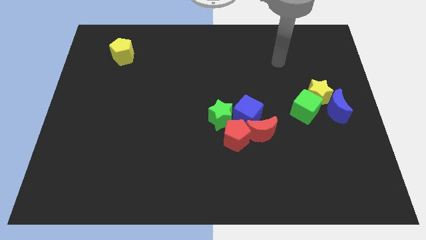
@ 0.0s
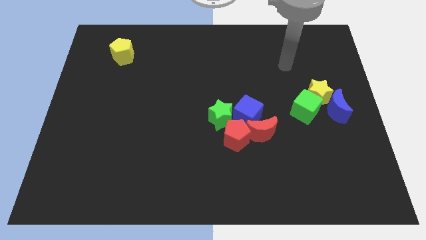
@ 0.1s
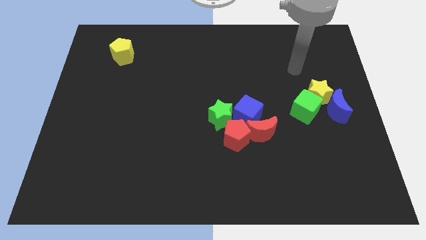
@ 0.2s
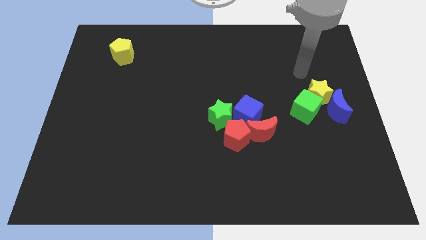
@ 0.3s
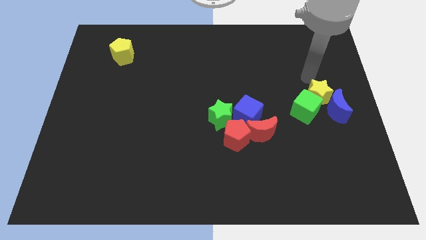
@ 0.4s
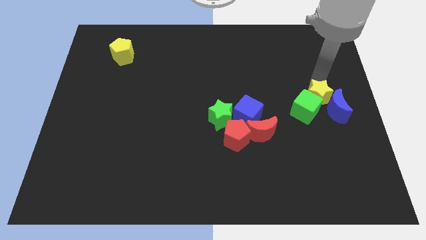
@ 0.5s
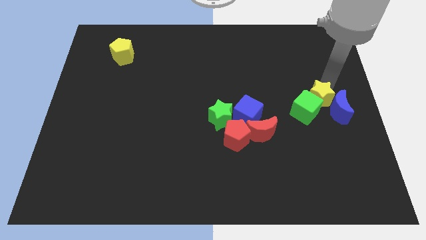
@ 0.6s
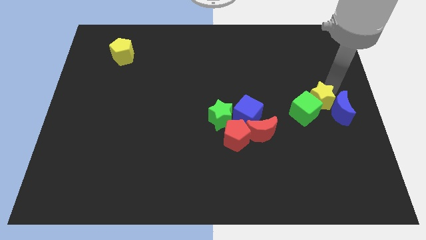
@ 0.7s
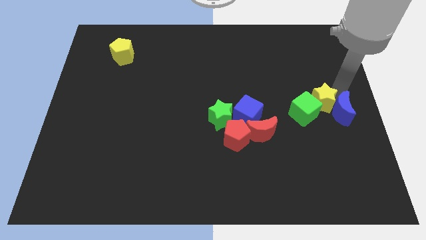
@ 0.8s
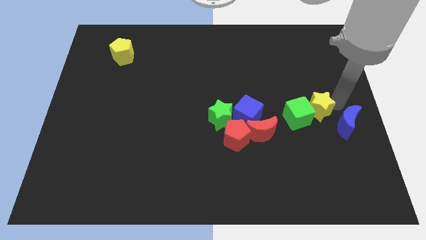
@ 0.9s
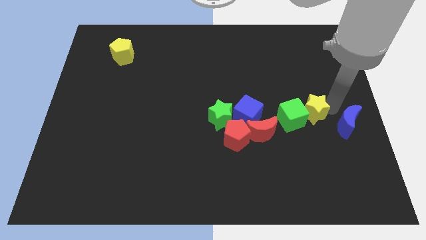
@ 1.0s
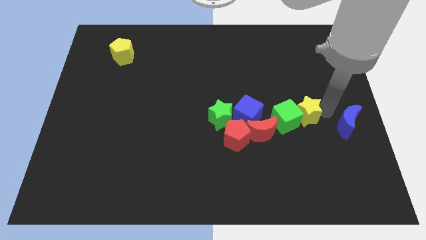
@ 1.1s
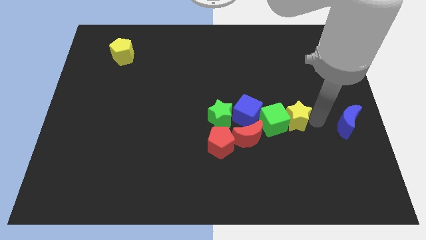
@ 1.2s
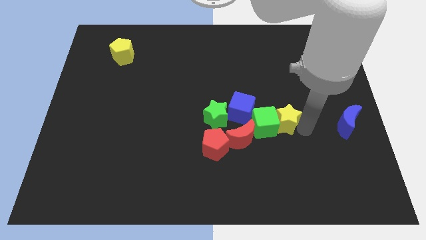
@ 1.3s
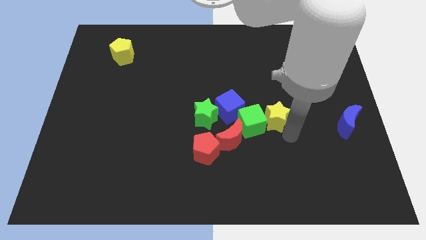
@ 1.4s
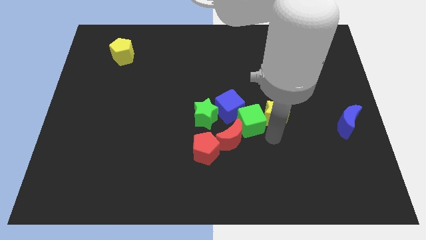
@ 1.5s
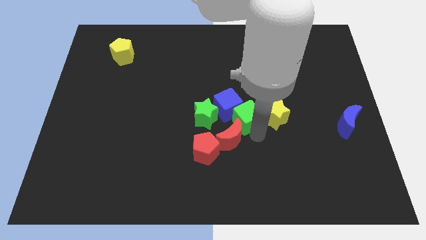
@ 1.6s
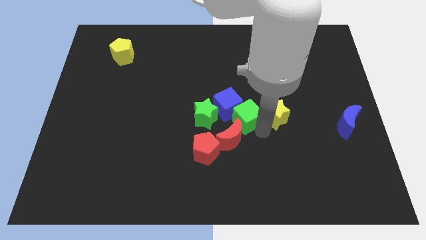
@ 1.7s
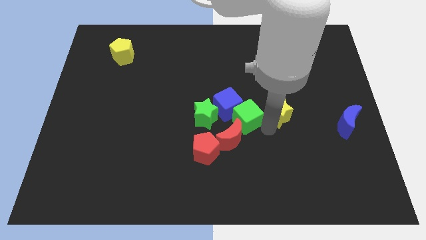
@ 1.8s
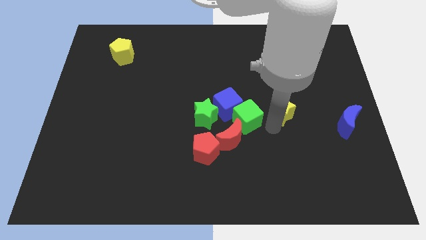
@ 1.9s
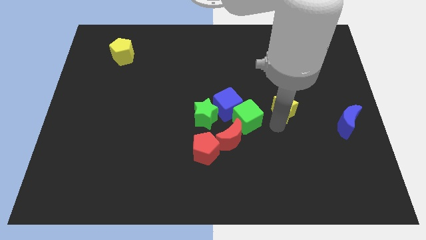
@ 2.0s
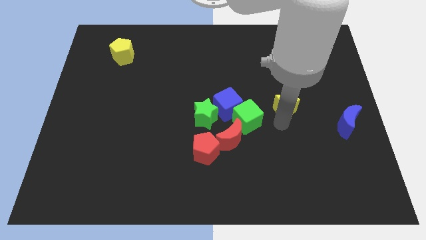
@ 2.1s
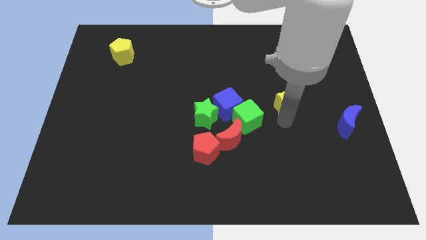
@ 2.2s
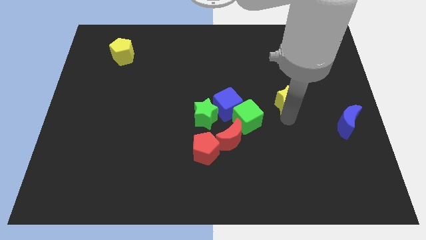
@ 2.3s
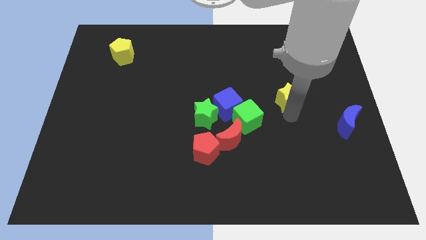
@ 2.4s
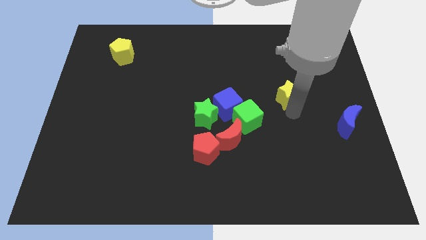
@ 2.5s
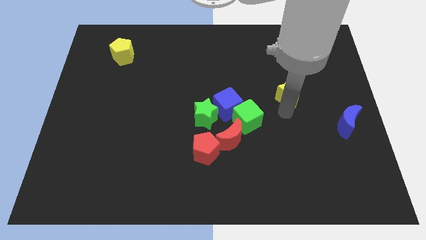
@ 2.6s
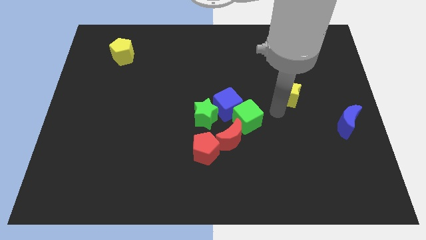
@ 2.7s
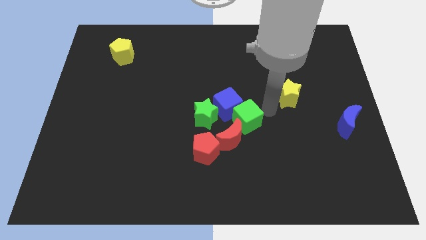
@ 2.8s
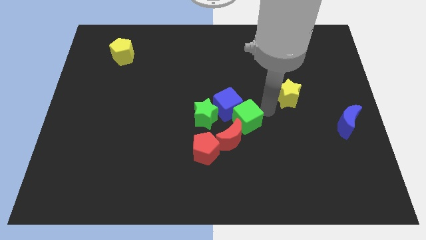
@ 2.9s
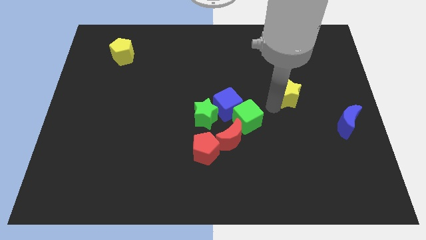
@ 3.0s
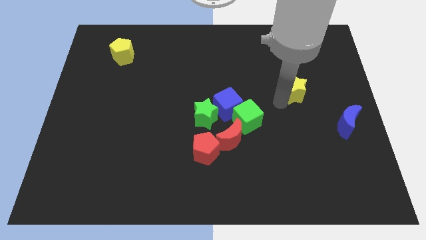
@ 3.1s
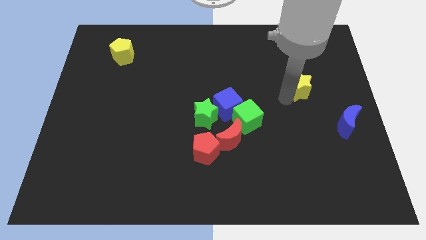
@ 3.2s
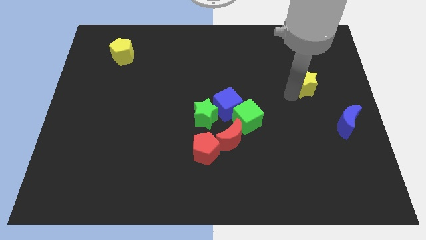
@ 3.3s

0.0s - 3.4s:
move the yellow star away from the green cube and blue moon

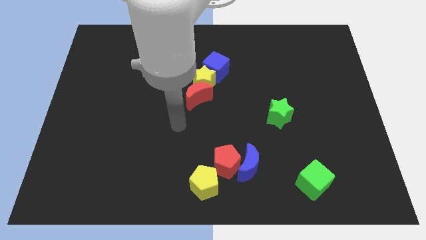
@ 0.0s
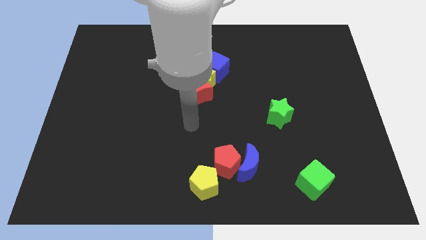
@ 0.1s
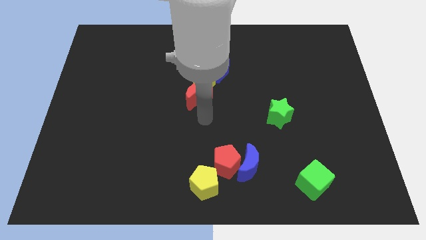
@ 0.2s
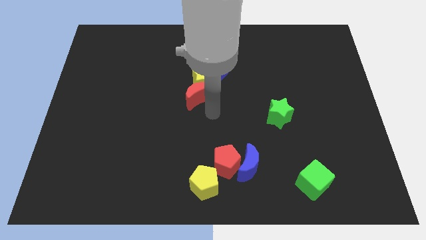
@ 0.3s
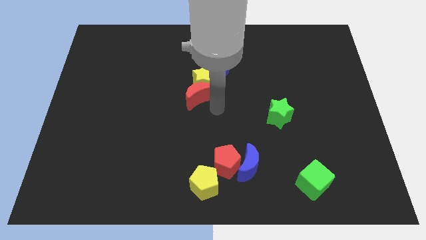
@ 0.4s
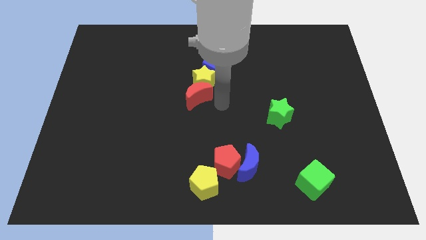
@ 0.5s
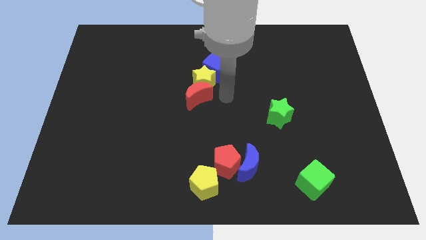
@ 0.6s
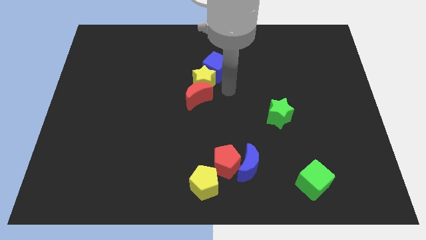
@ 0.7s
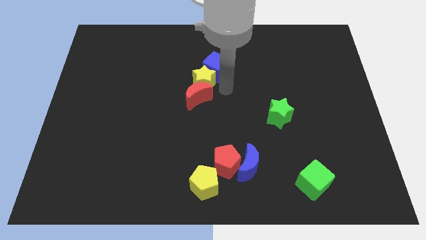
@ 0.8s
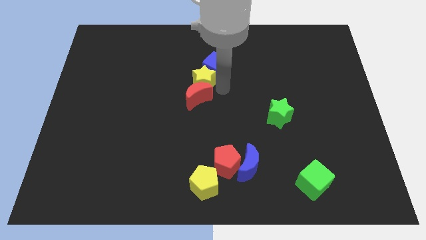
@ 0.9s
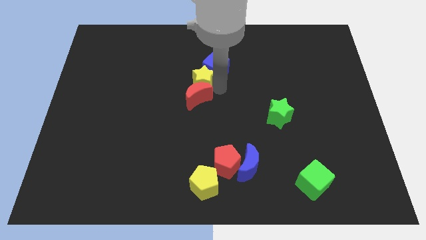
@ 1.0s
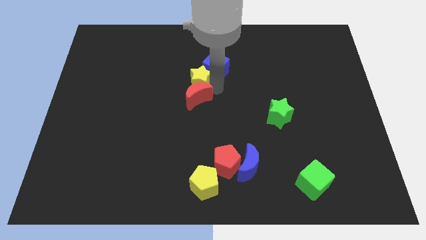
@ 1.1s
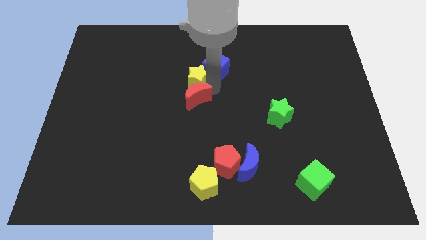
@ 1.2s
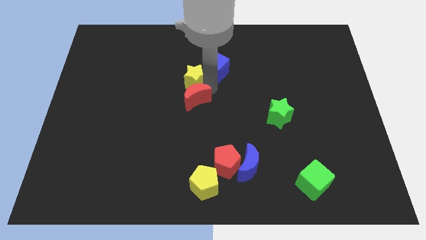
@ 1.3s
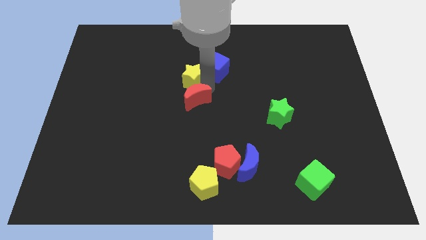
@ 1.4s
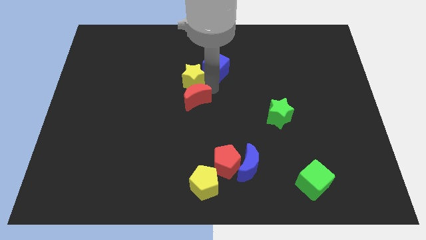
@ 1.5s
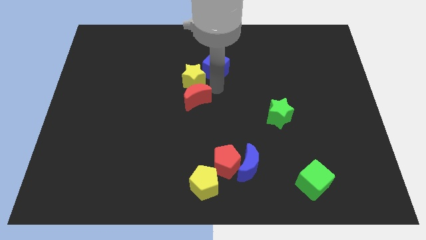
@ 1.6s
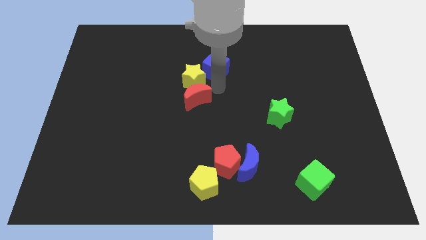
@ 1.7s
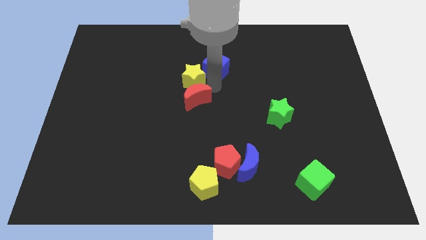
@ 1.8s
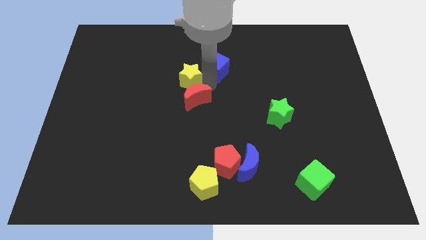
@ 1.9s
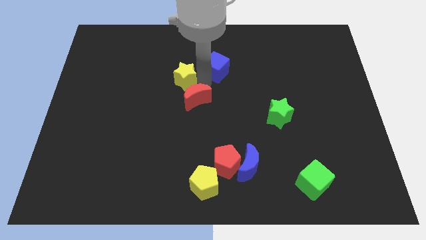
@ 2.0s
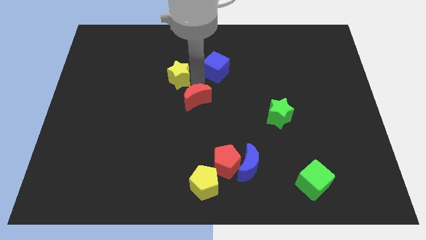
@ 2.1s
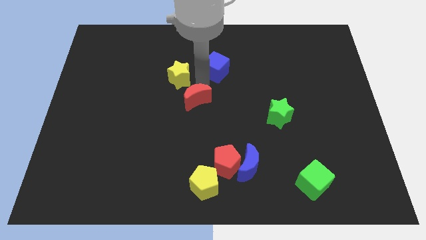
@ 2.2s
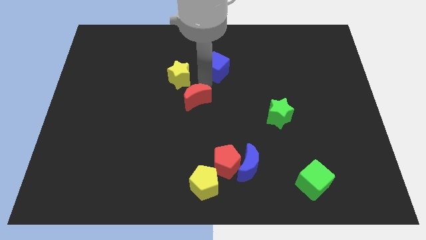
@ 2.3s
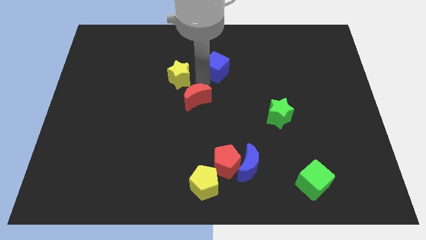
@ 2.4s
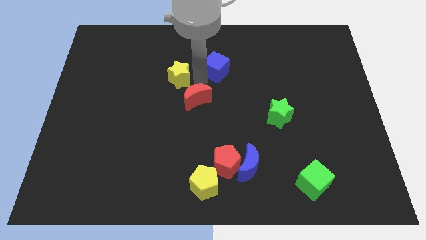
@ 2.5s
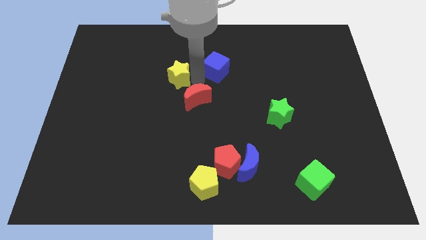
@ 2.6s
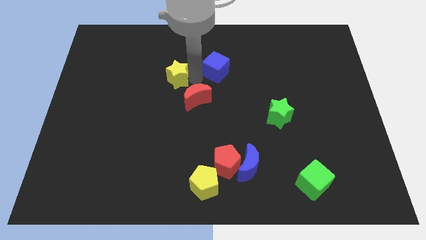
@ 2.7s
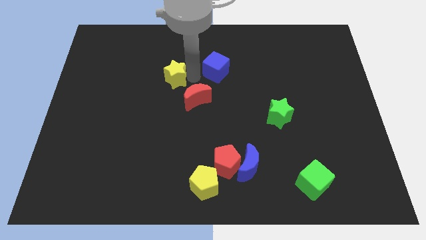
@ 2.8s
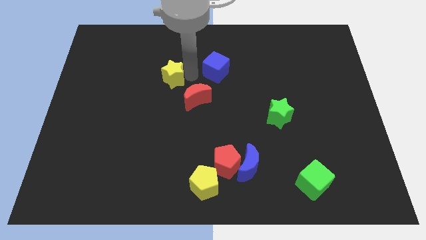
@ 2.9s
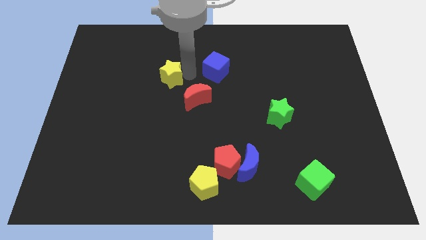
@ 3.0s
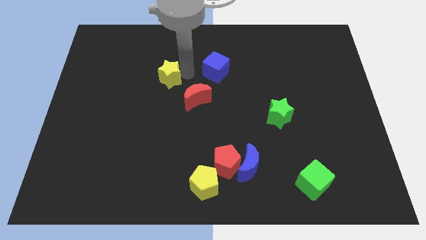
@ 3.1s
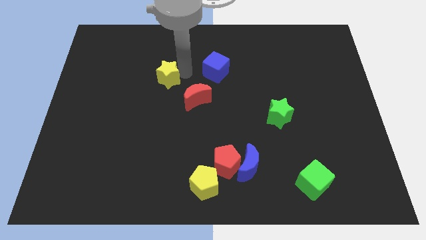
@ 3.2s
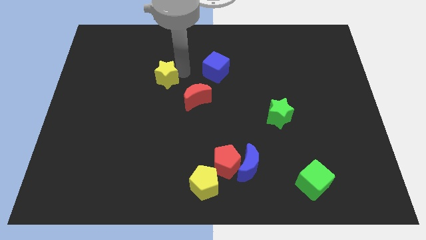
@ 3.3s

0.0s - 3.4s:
pull the yellow star apart from the blue cube and red moon

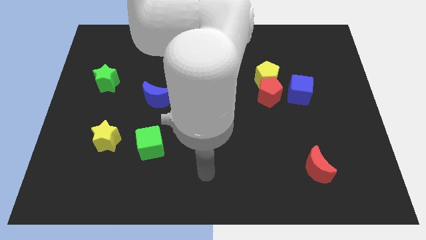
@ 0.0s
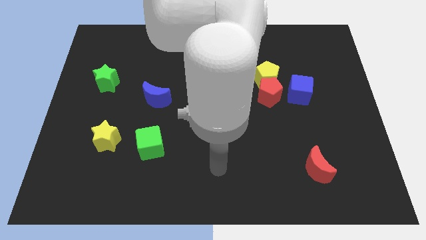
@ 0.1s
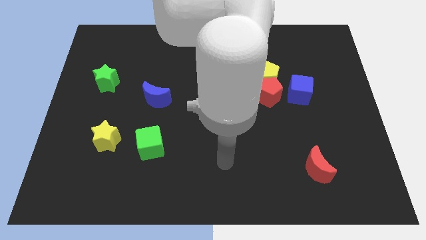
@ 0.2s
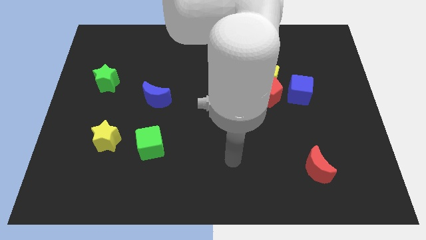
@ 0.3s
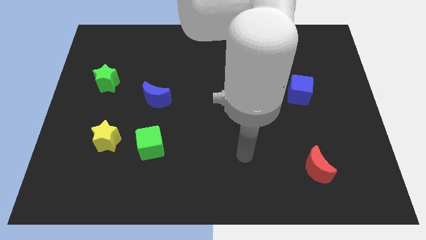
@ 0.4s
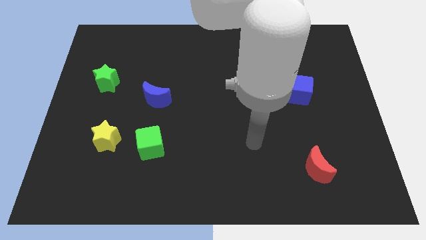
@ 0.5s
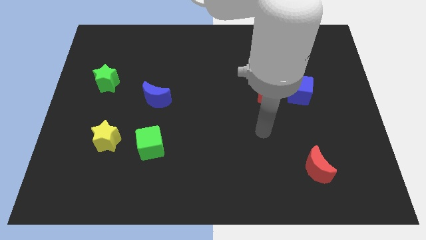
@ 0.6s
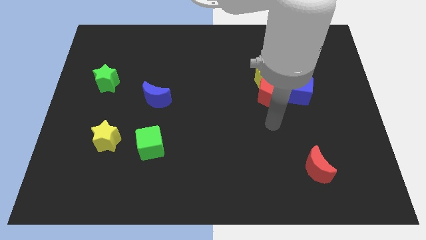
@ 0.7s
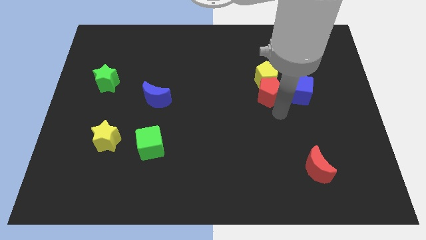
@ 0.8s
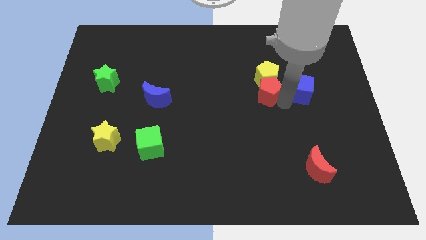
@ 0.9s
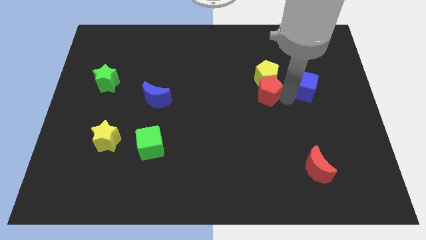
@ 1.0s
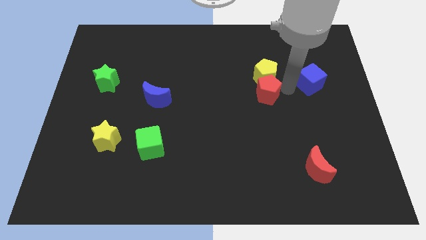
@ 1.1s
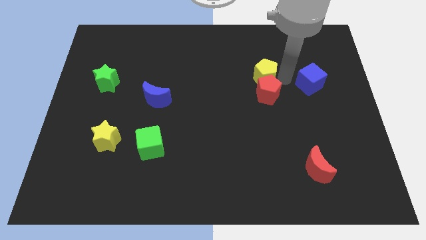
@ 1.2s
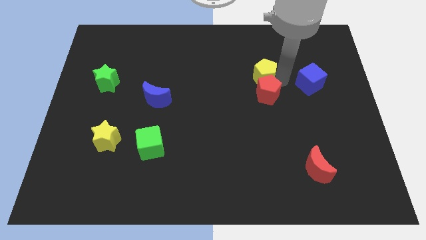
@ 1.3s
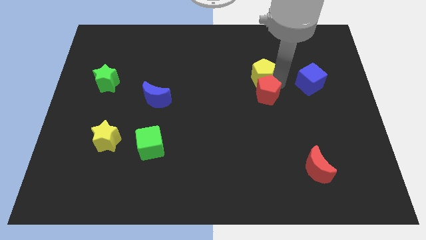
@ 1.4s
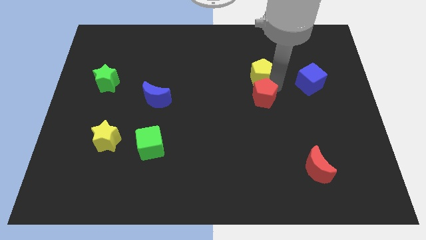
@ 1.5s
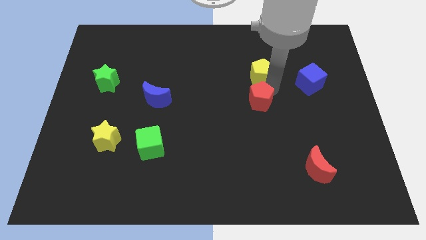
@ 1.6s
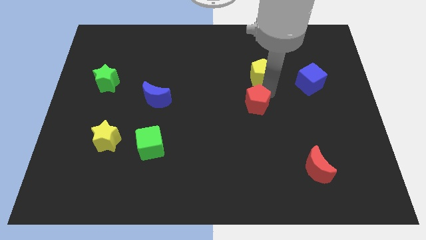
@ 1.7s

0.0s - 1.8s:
pull the red pentagon apart from the yellow pentagon and blue cube

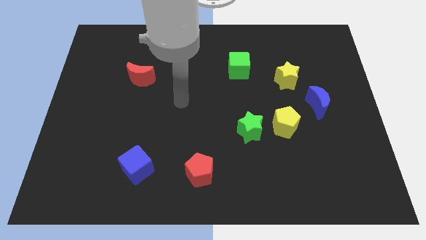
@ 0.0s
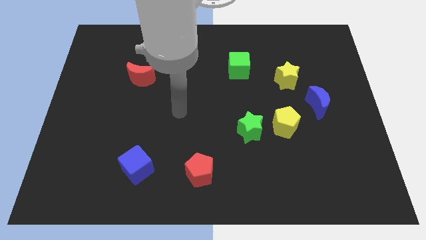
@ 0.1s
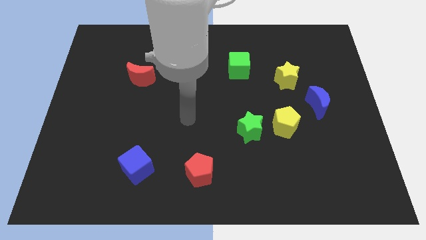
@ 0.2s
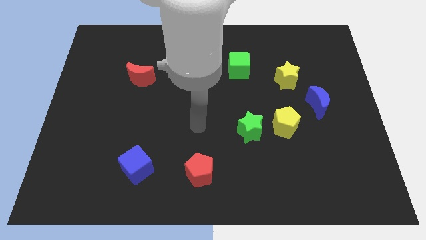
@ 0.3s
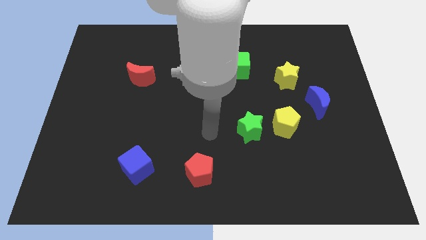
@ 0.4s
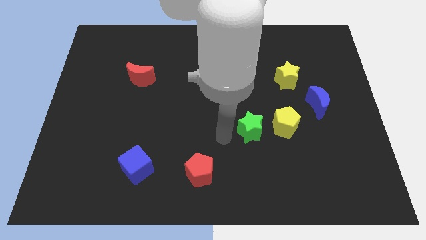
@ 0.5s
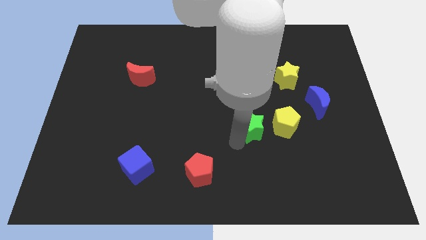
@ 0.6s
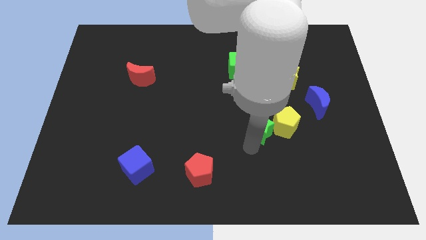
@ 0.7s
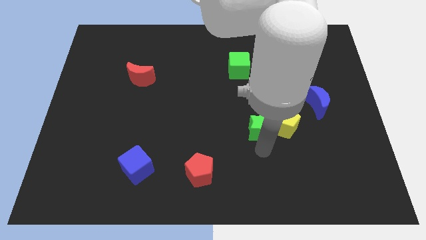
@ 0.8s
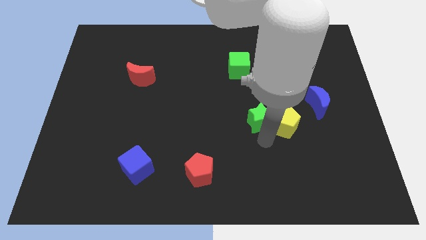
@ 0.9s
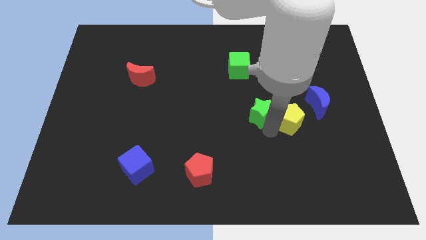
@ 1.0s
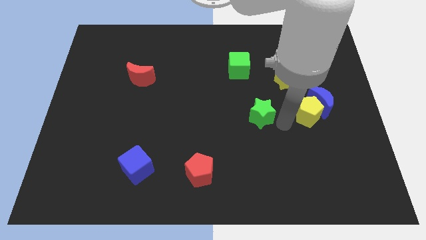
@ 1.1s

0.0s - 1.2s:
move the green star away from the yellow pentagon
